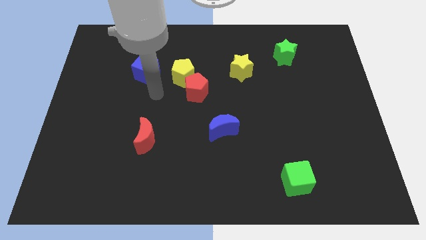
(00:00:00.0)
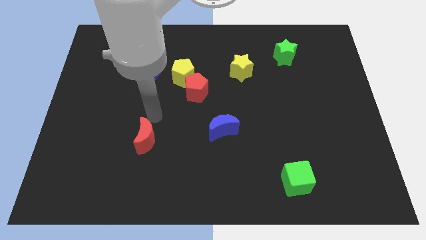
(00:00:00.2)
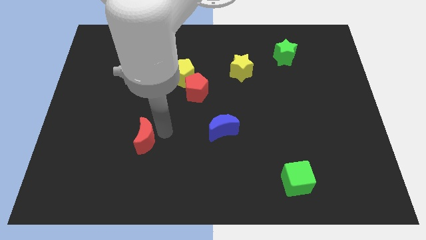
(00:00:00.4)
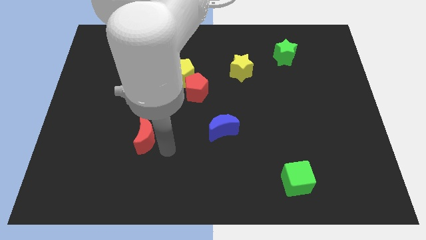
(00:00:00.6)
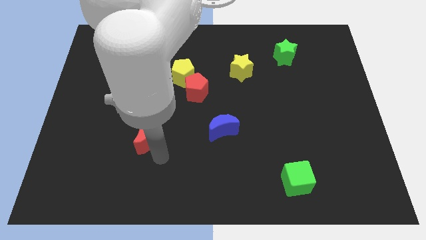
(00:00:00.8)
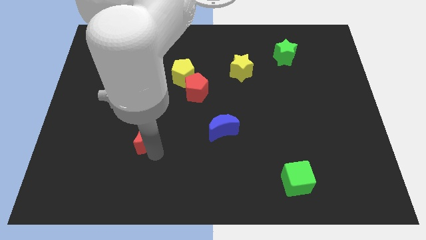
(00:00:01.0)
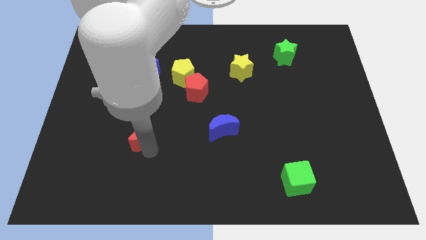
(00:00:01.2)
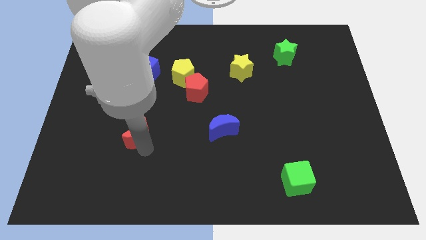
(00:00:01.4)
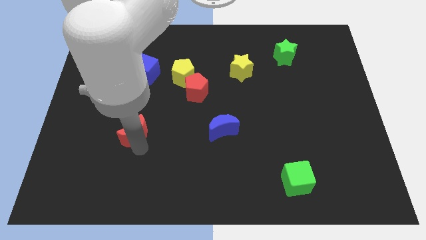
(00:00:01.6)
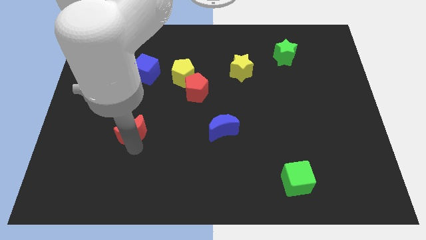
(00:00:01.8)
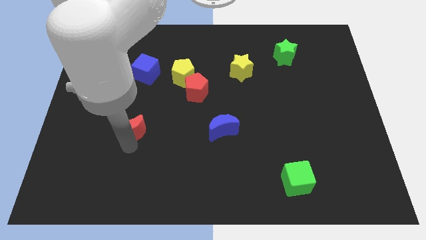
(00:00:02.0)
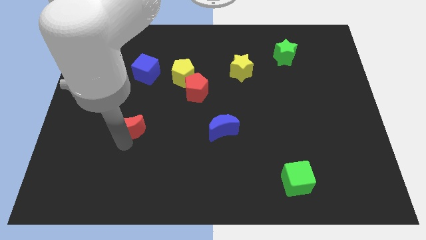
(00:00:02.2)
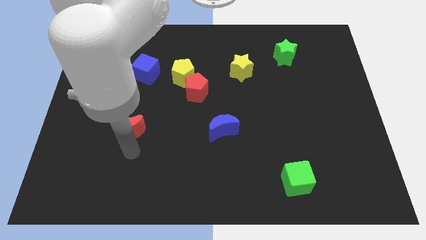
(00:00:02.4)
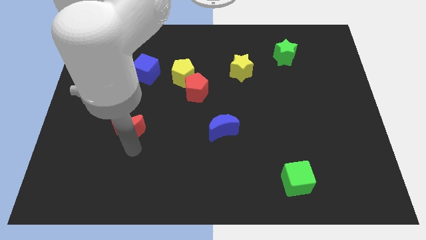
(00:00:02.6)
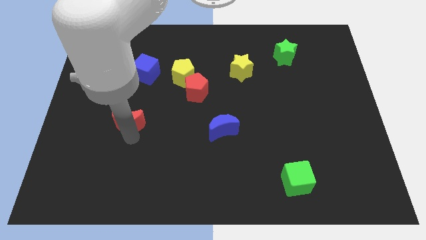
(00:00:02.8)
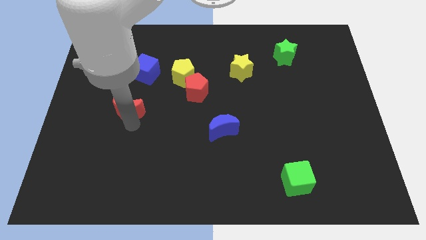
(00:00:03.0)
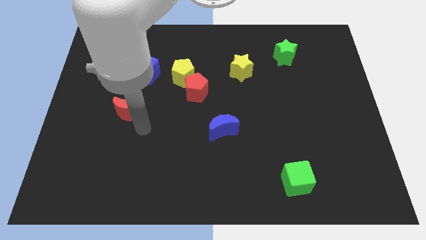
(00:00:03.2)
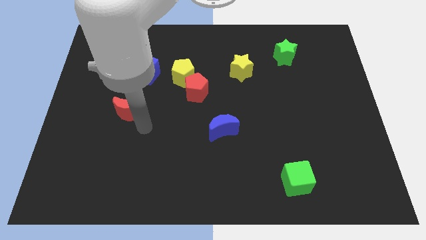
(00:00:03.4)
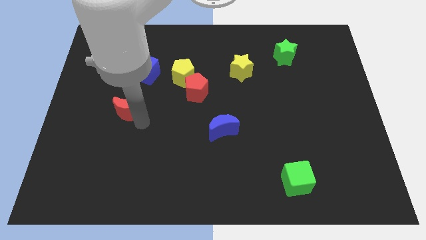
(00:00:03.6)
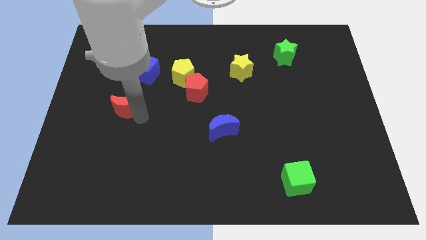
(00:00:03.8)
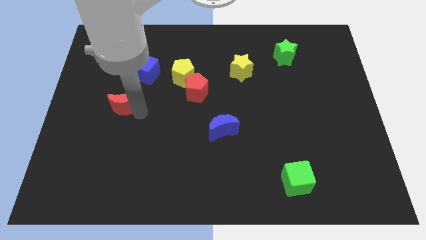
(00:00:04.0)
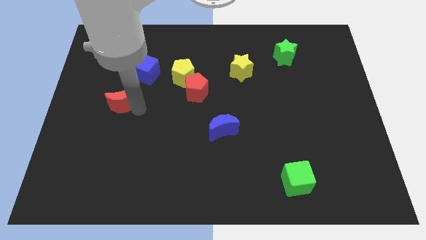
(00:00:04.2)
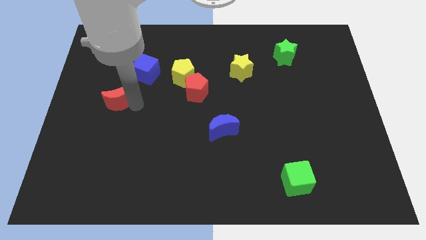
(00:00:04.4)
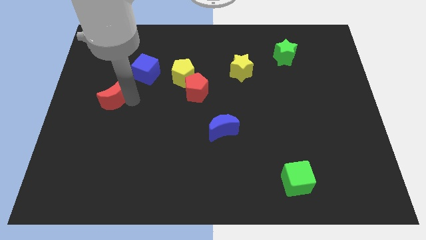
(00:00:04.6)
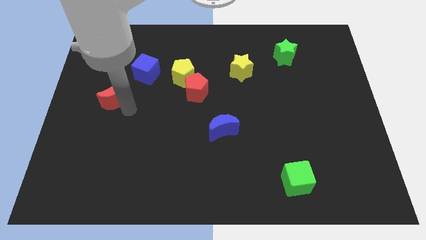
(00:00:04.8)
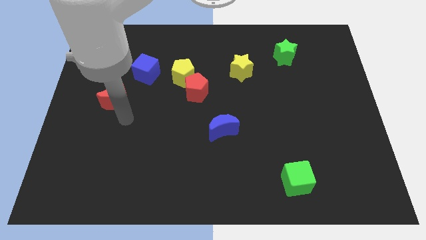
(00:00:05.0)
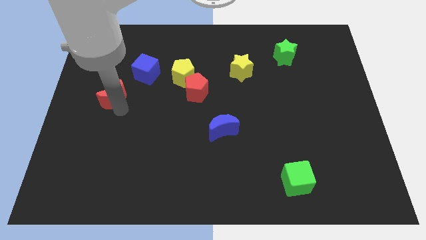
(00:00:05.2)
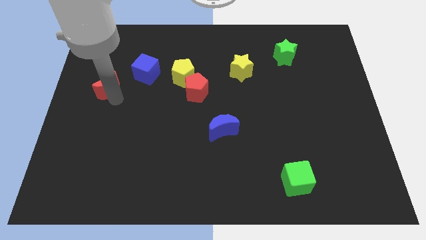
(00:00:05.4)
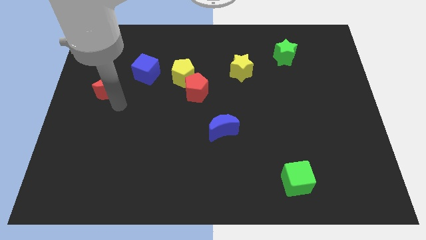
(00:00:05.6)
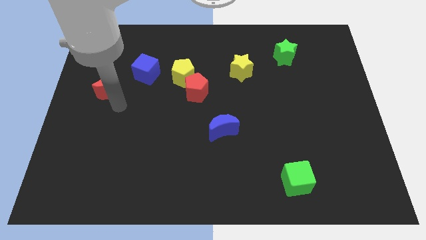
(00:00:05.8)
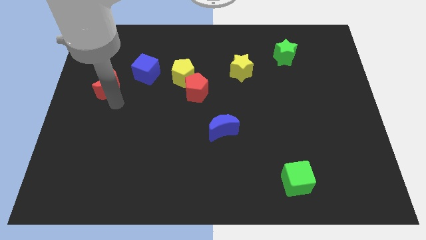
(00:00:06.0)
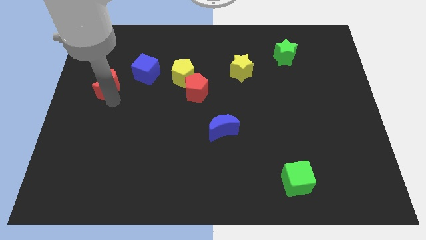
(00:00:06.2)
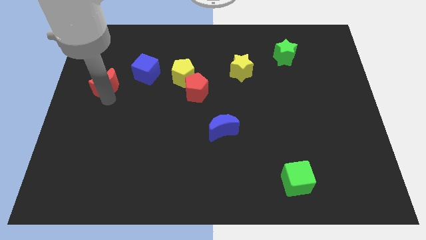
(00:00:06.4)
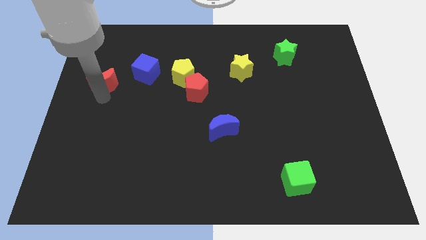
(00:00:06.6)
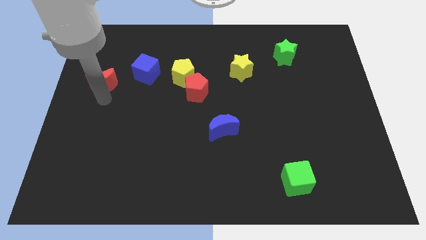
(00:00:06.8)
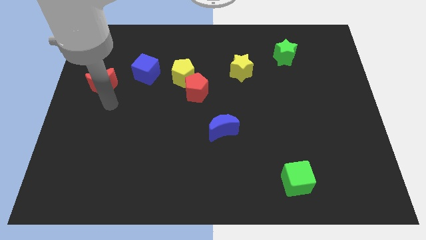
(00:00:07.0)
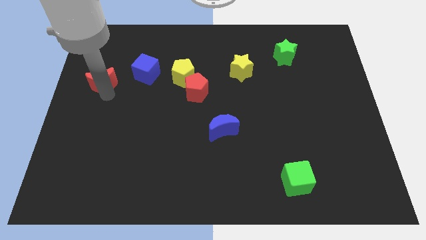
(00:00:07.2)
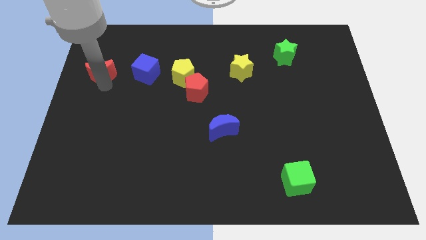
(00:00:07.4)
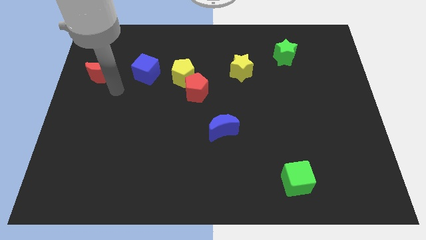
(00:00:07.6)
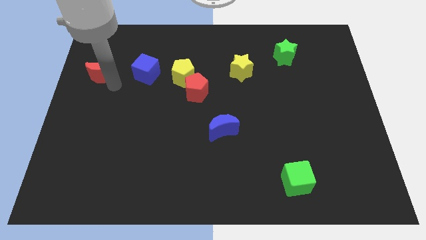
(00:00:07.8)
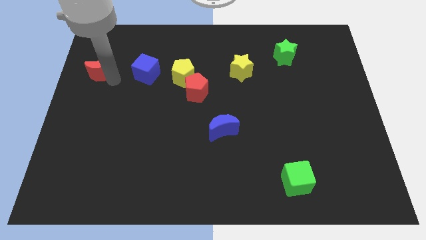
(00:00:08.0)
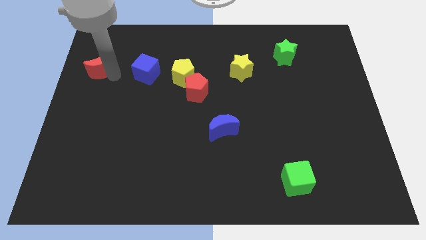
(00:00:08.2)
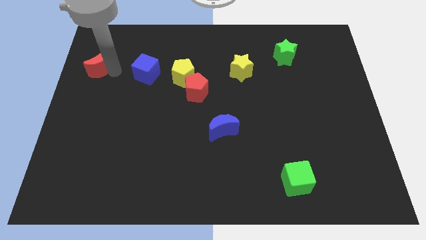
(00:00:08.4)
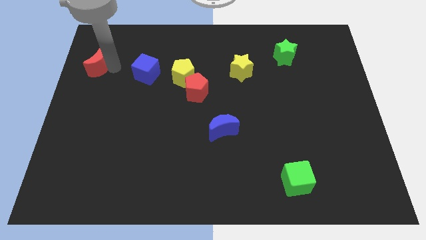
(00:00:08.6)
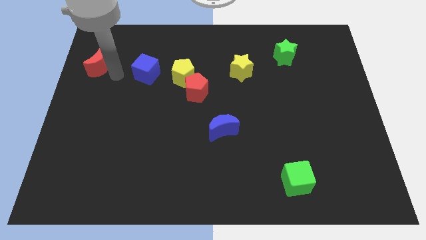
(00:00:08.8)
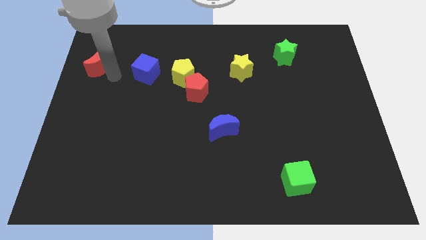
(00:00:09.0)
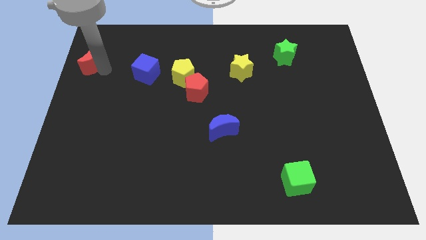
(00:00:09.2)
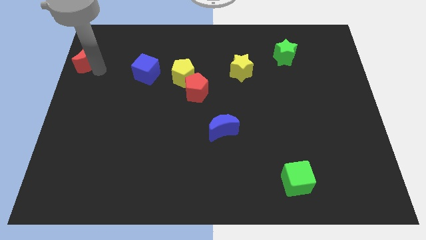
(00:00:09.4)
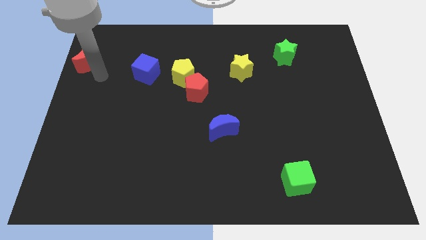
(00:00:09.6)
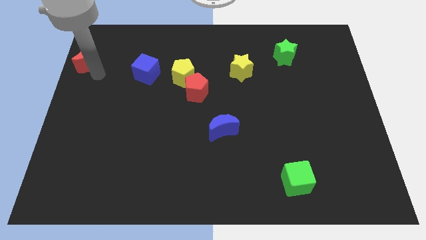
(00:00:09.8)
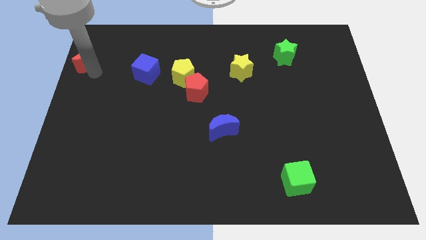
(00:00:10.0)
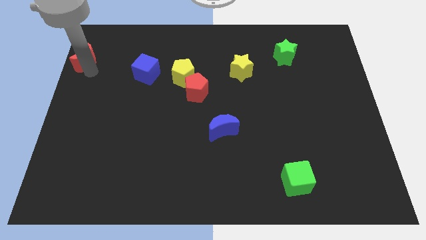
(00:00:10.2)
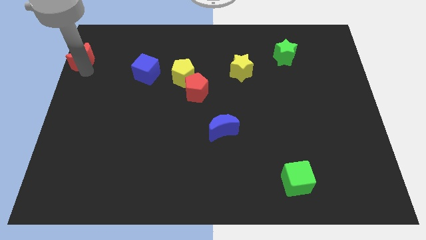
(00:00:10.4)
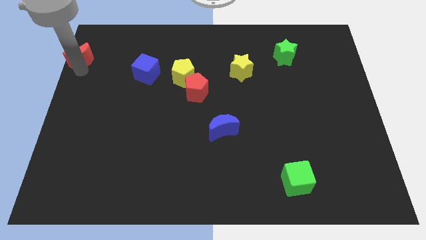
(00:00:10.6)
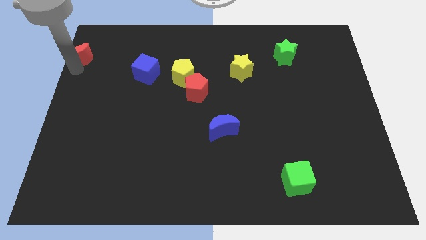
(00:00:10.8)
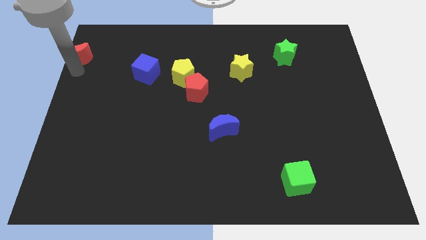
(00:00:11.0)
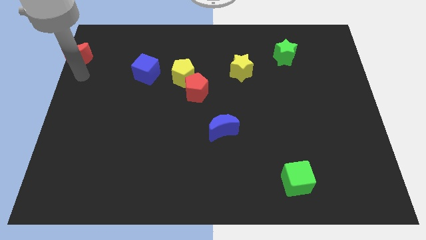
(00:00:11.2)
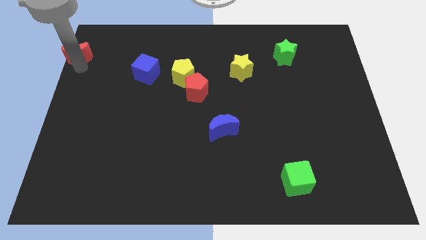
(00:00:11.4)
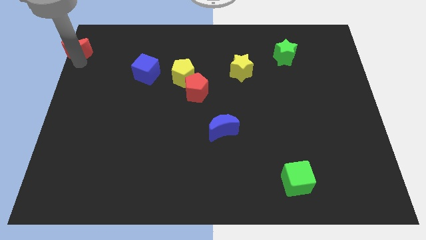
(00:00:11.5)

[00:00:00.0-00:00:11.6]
put the red moon to the upper left corner

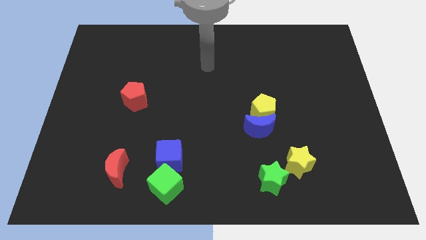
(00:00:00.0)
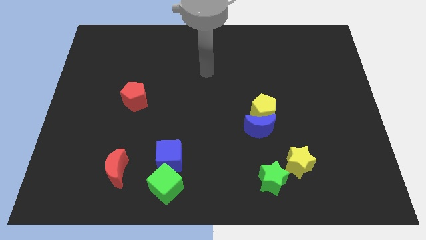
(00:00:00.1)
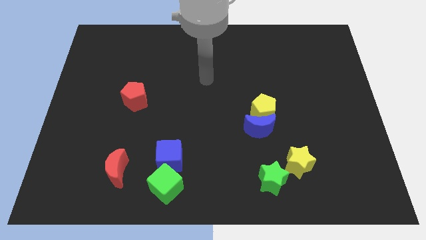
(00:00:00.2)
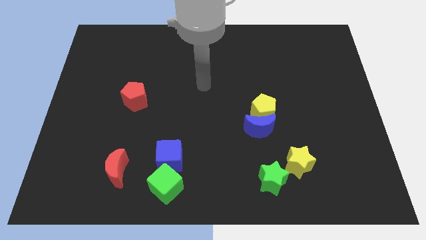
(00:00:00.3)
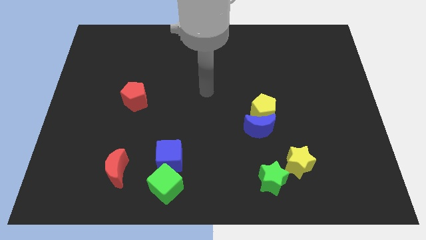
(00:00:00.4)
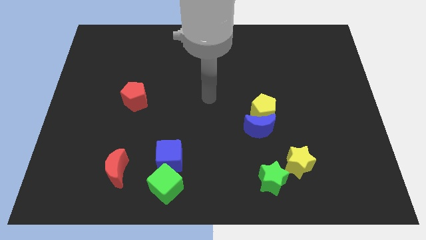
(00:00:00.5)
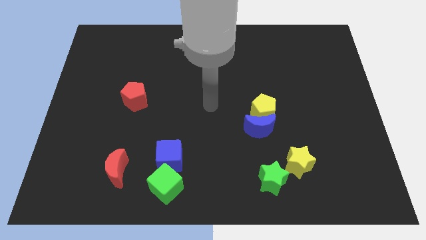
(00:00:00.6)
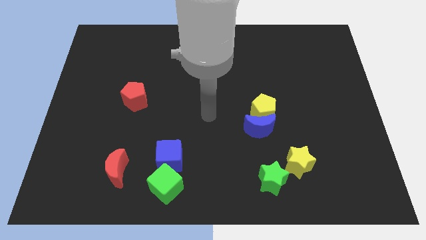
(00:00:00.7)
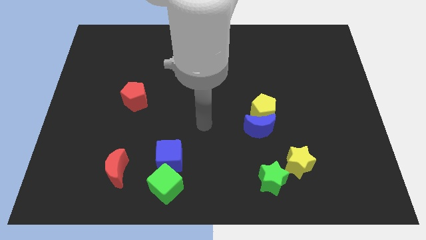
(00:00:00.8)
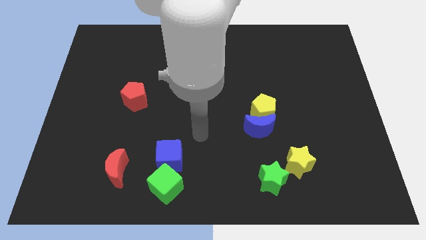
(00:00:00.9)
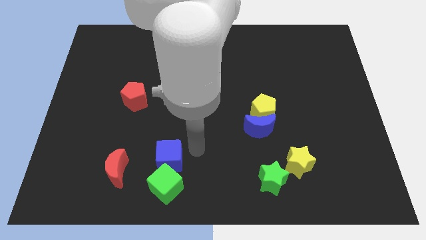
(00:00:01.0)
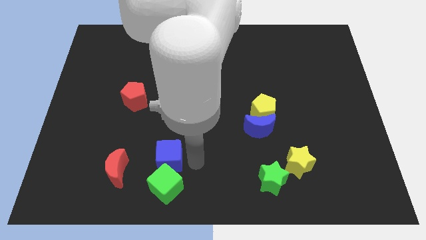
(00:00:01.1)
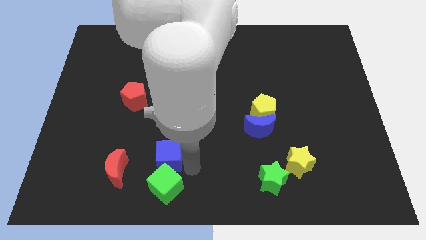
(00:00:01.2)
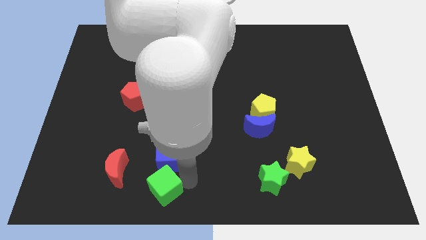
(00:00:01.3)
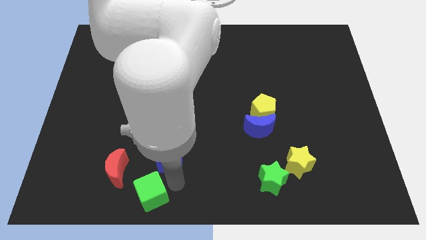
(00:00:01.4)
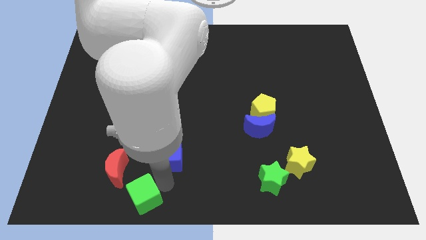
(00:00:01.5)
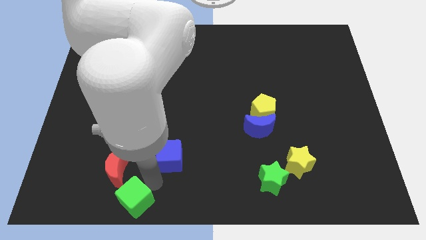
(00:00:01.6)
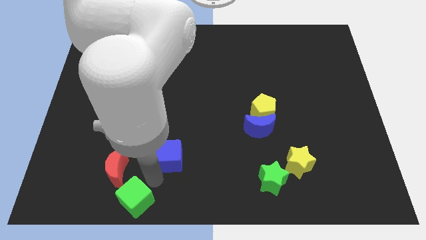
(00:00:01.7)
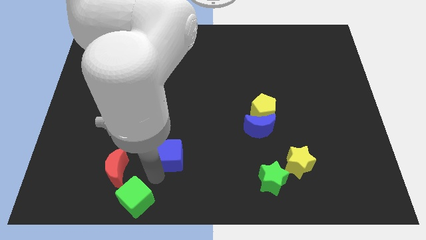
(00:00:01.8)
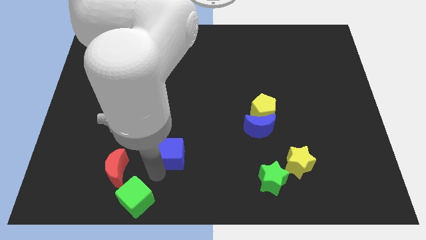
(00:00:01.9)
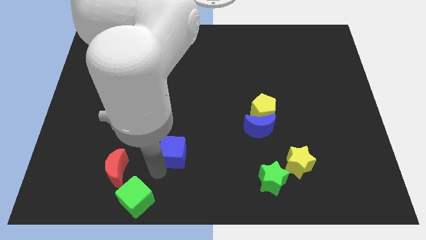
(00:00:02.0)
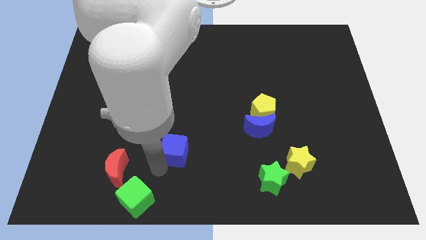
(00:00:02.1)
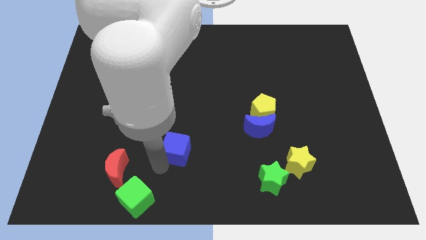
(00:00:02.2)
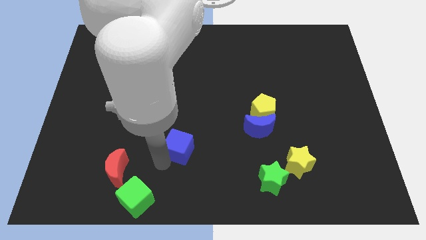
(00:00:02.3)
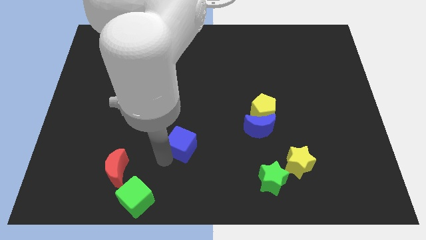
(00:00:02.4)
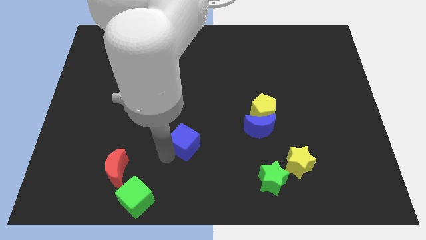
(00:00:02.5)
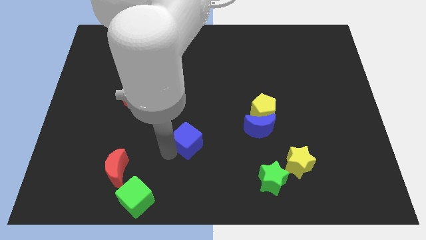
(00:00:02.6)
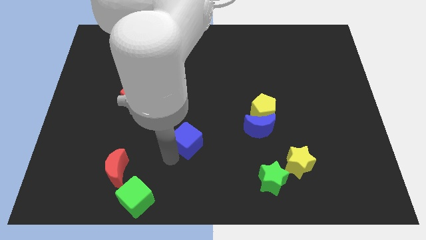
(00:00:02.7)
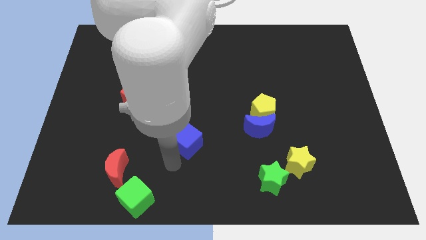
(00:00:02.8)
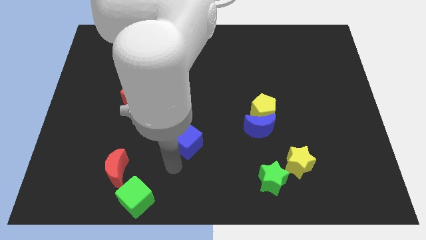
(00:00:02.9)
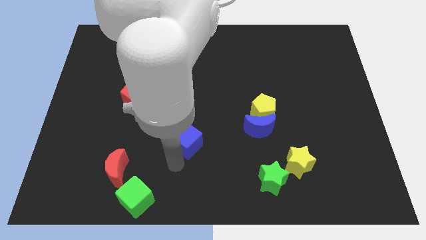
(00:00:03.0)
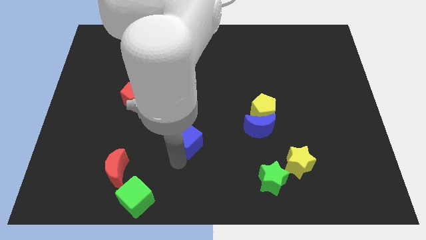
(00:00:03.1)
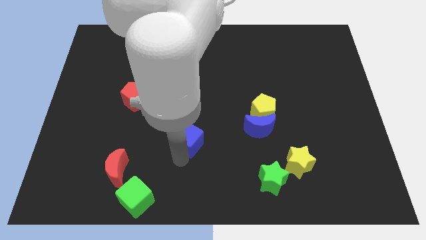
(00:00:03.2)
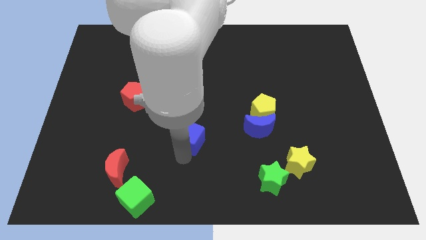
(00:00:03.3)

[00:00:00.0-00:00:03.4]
push the blue cube to the center
